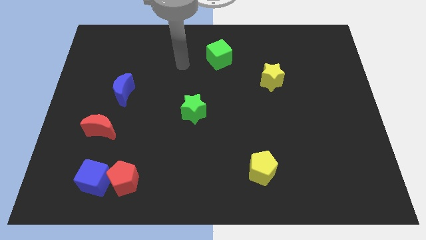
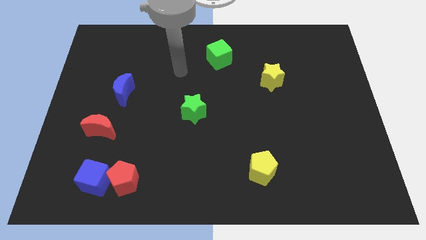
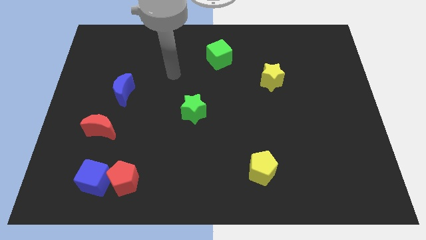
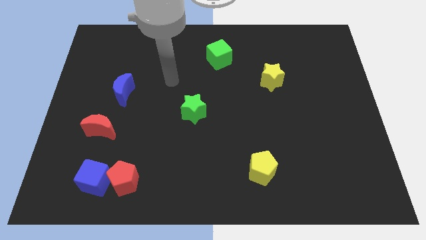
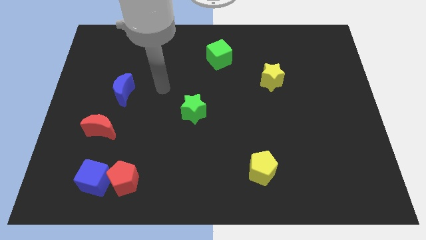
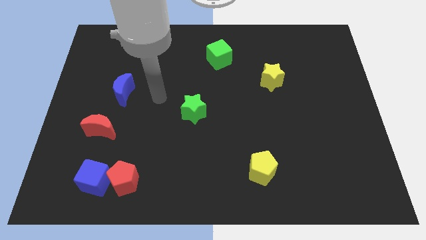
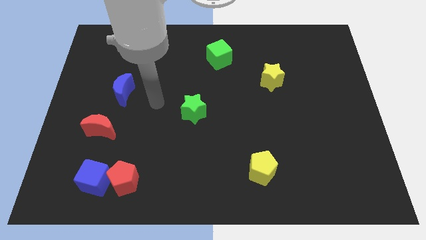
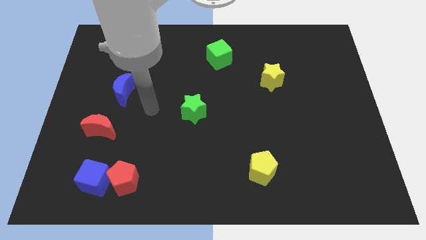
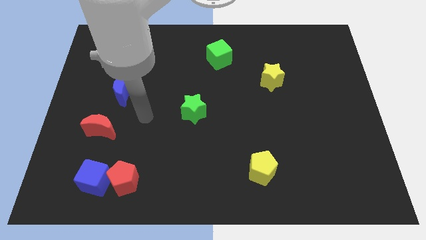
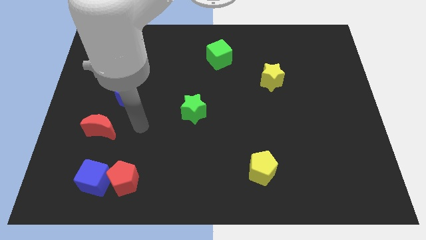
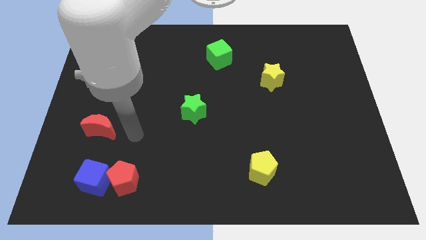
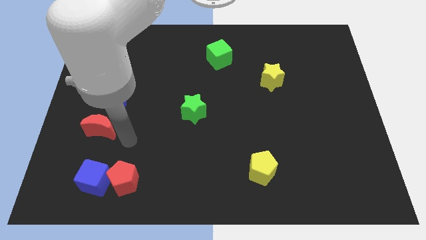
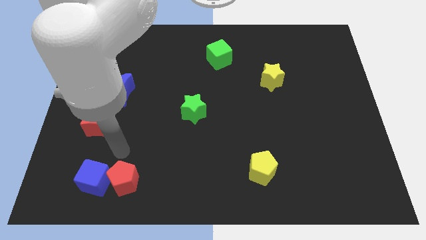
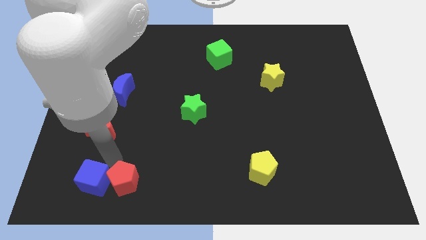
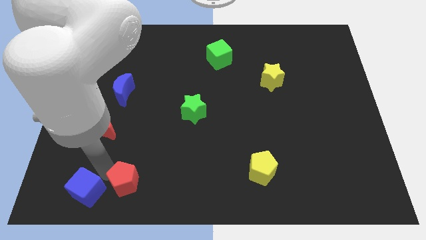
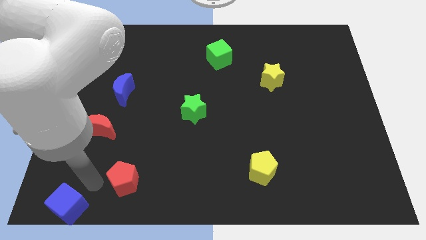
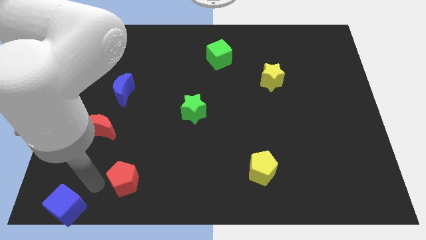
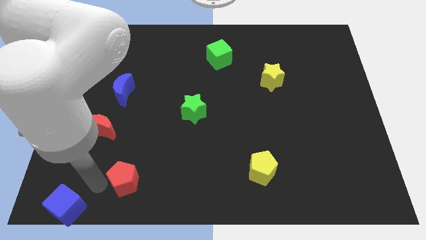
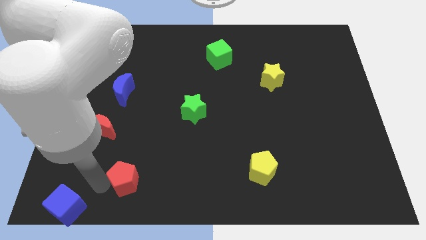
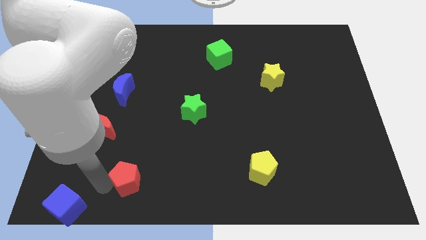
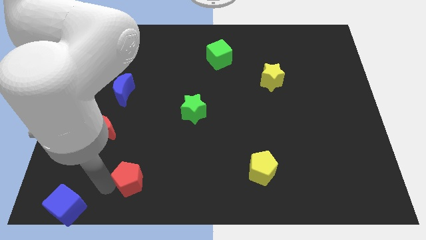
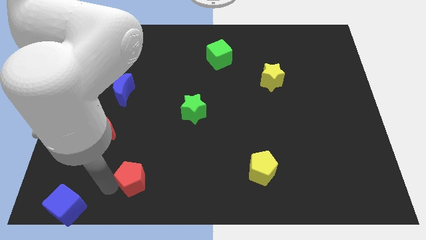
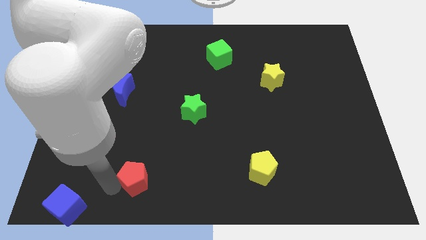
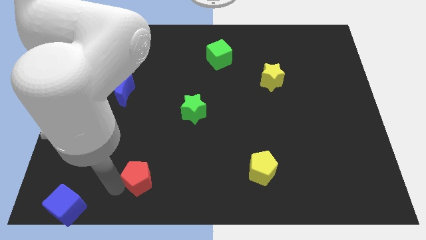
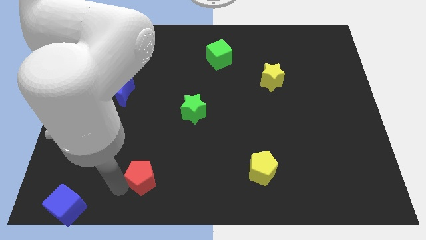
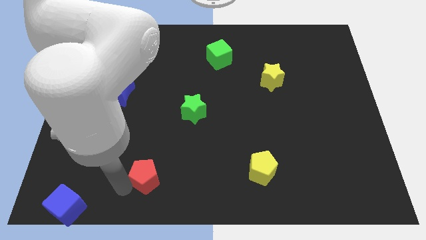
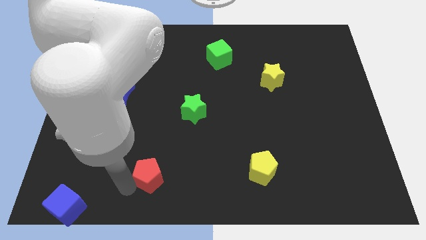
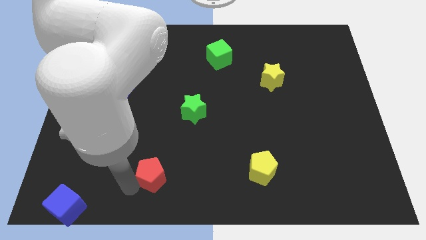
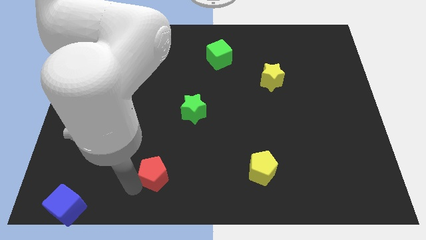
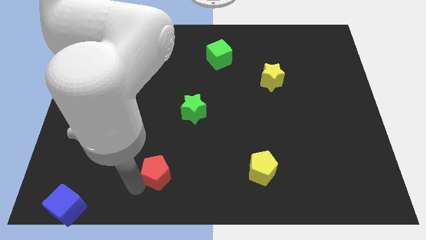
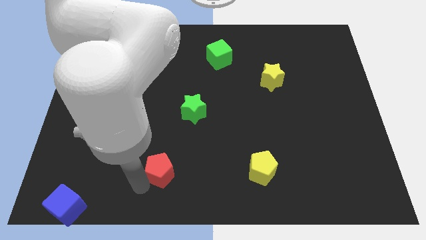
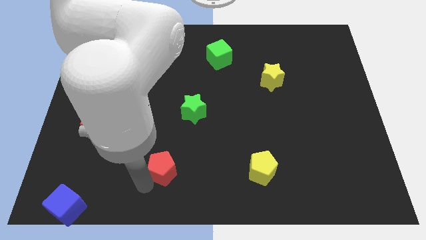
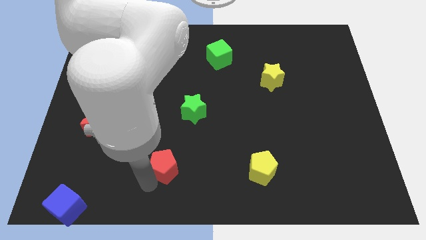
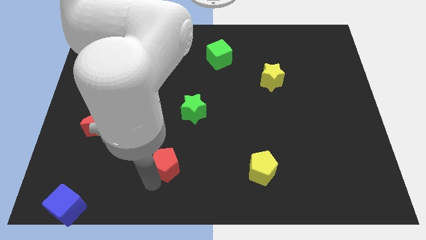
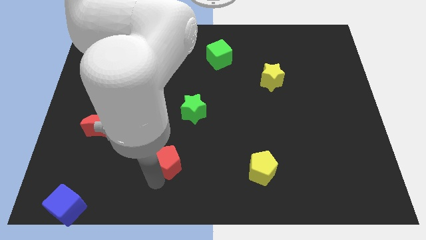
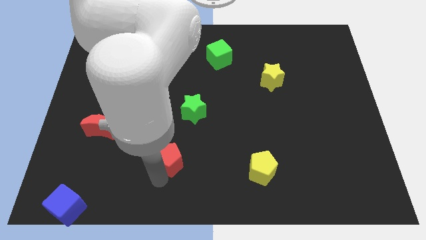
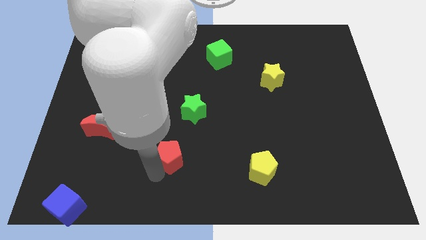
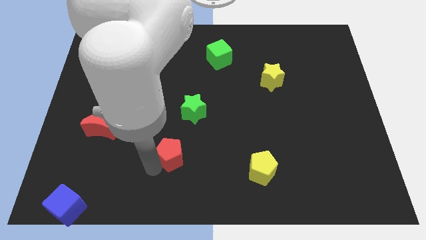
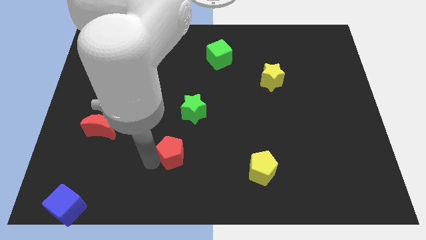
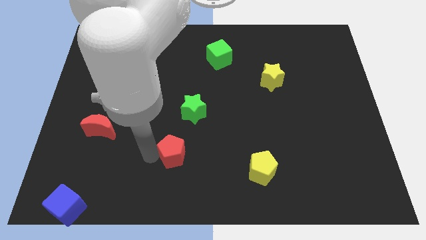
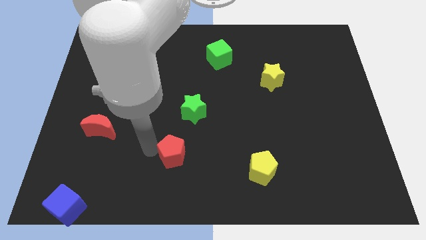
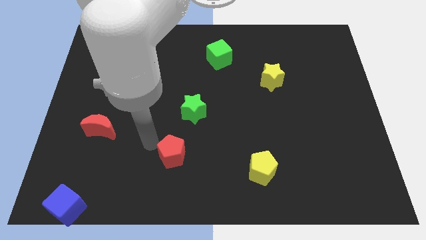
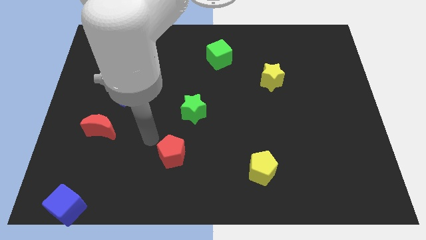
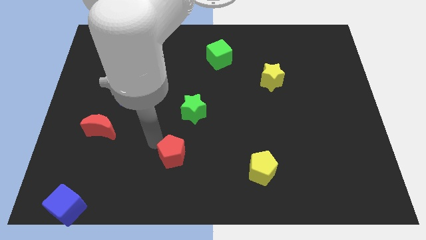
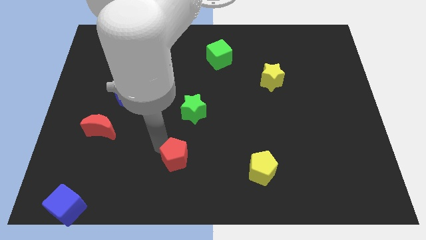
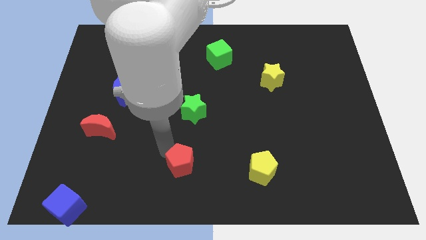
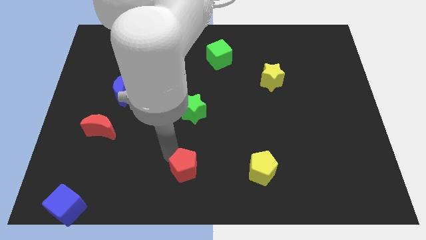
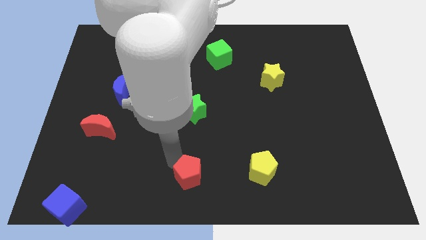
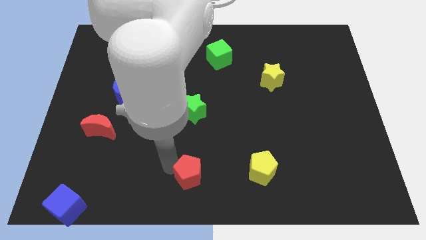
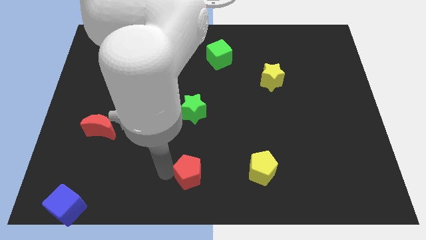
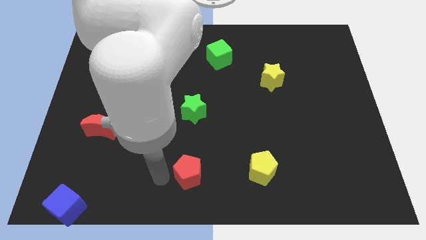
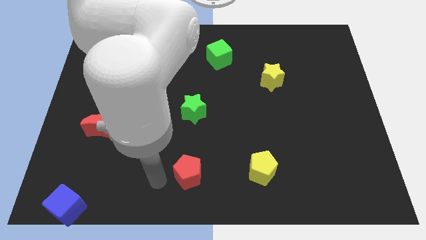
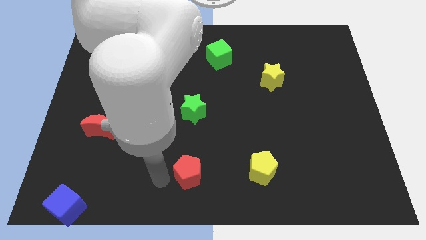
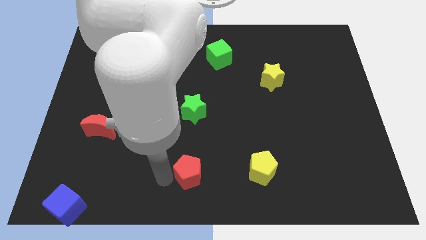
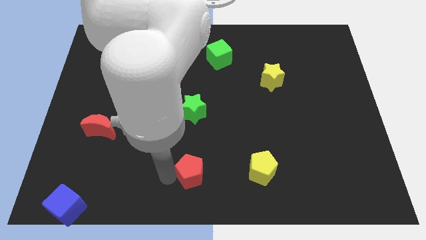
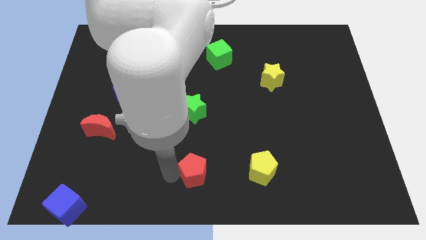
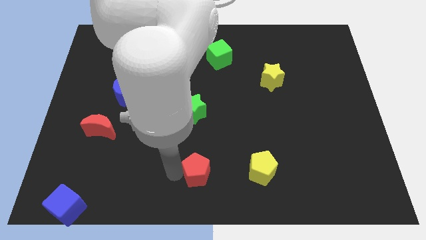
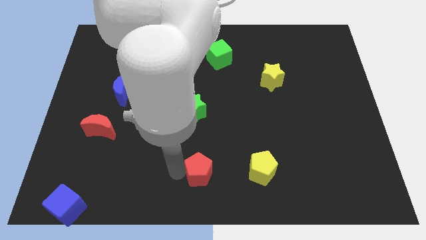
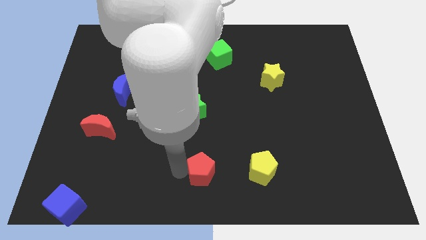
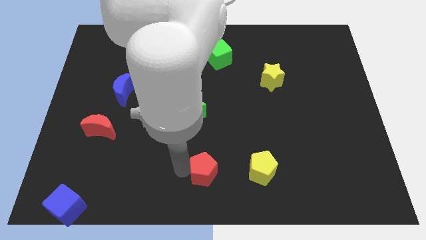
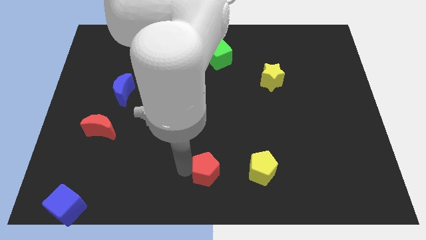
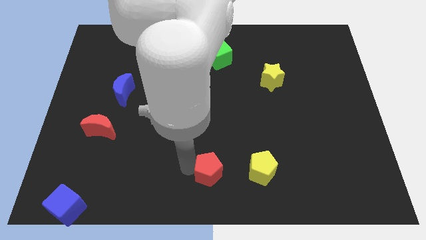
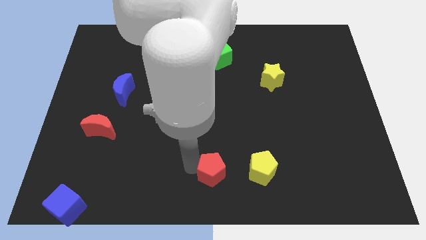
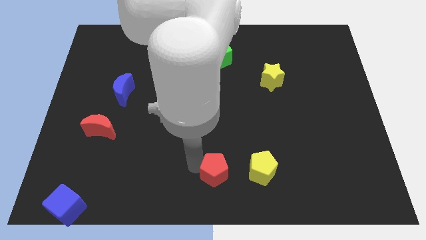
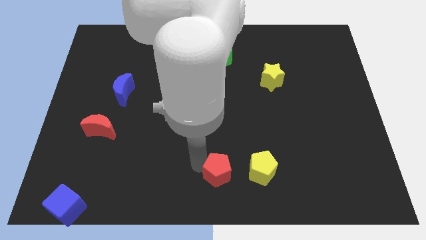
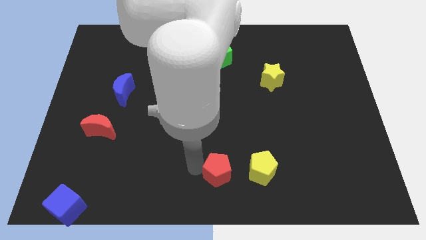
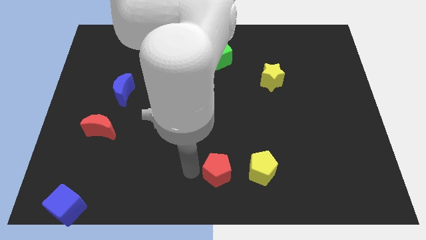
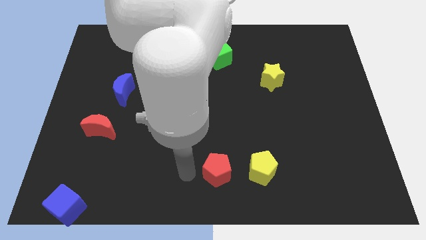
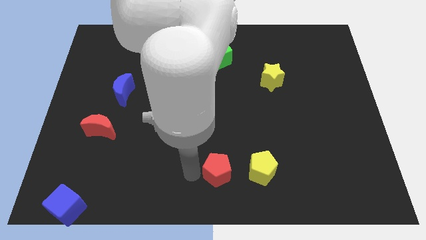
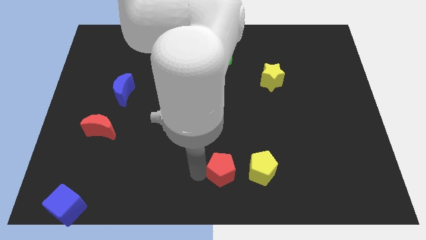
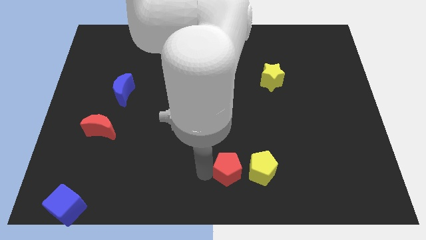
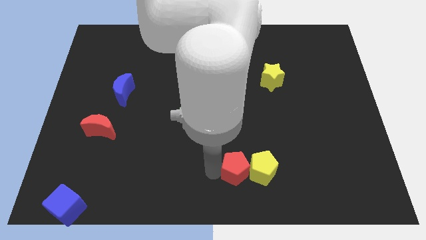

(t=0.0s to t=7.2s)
push the red pentagon close to the yellow pentagon
